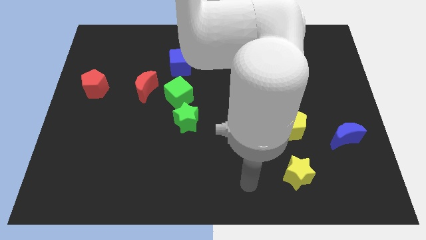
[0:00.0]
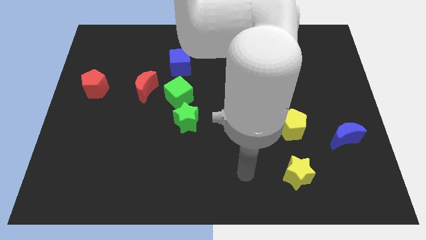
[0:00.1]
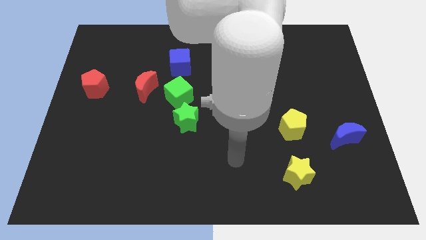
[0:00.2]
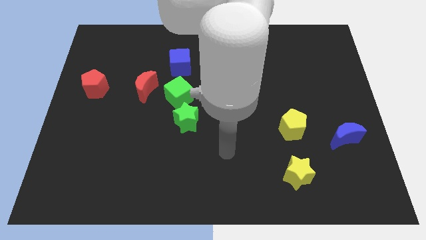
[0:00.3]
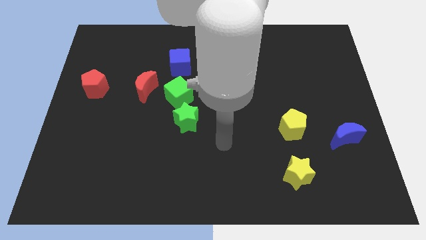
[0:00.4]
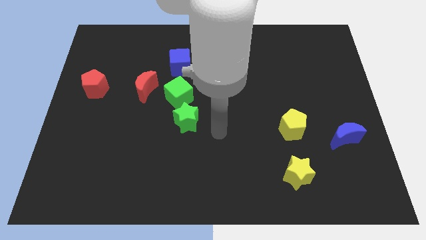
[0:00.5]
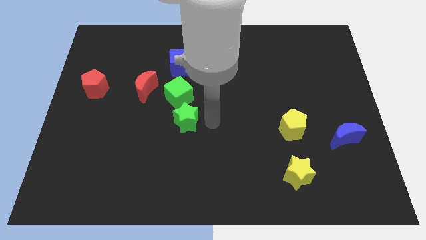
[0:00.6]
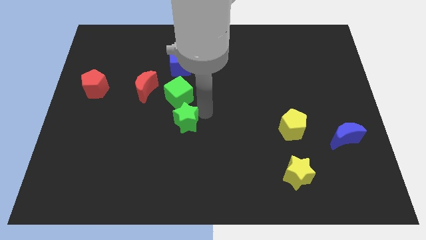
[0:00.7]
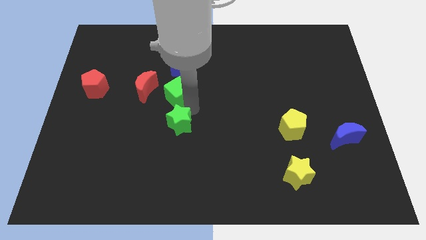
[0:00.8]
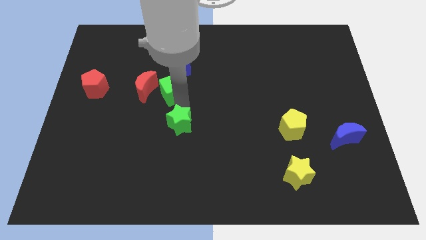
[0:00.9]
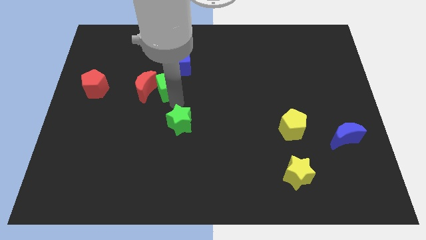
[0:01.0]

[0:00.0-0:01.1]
pull the green star apart from the green cube

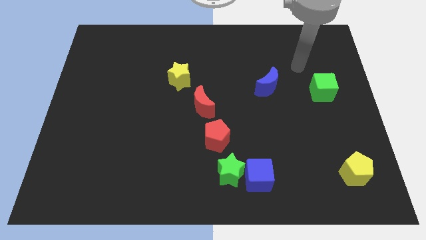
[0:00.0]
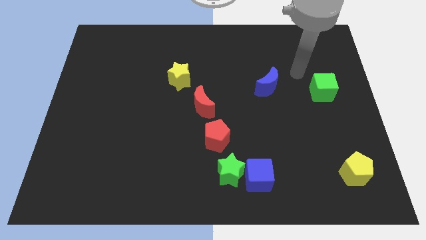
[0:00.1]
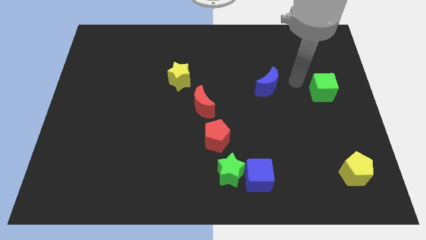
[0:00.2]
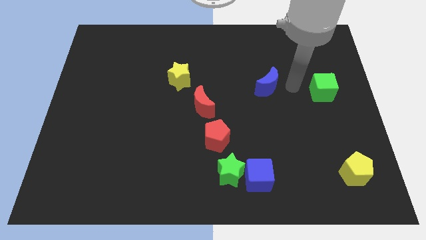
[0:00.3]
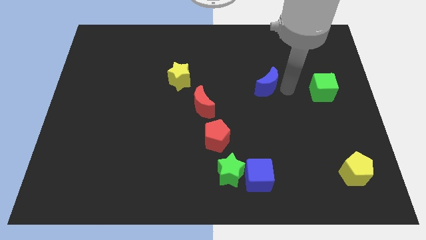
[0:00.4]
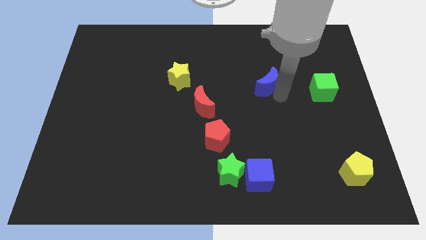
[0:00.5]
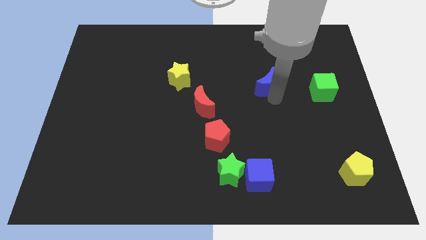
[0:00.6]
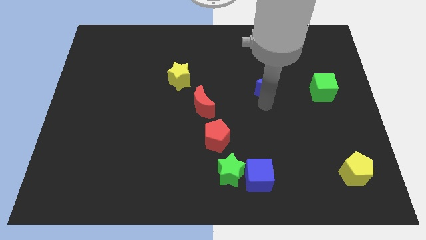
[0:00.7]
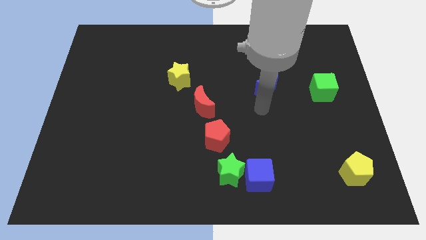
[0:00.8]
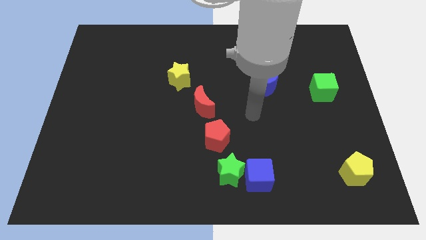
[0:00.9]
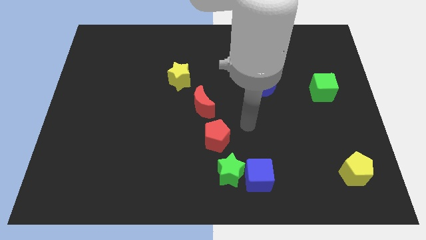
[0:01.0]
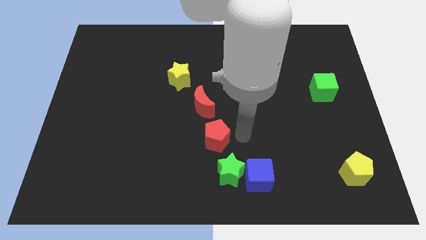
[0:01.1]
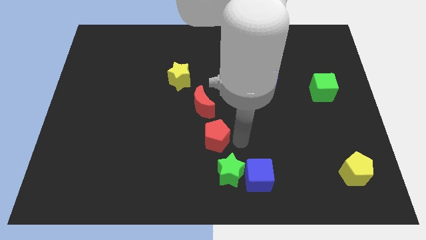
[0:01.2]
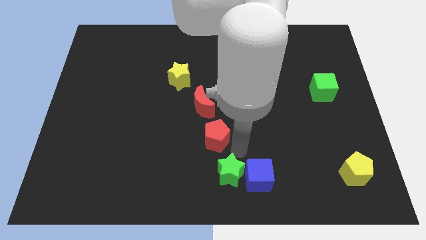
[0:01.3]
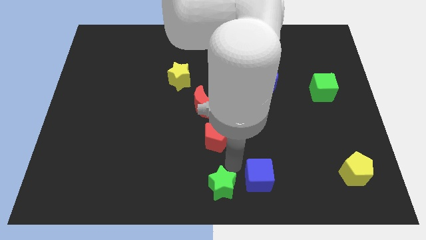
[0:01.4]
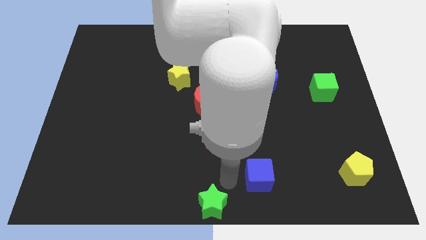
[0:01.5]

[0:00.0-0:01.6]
separate the blue cube from the green star

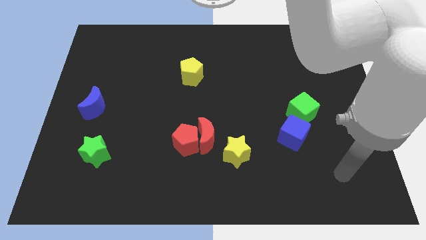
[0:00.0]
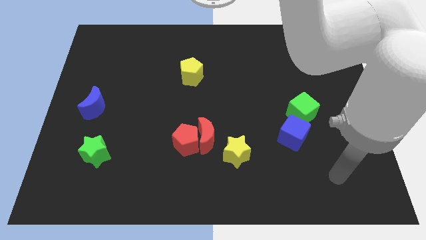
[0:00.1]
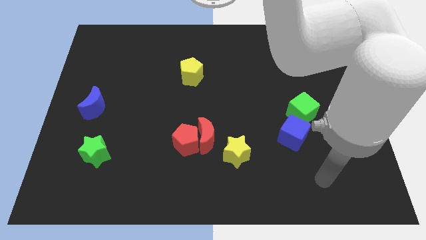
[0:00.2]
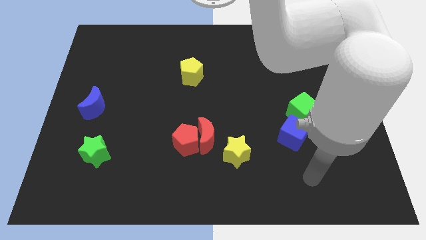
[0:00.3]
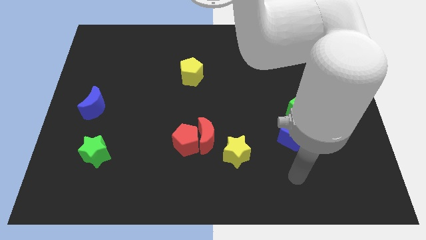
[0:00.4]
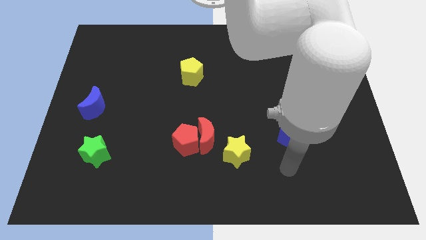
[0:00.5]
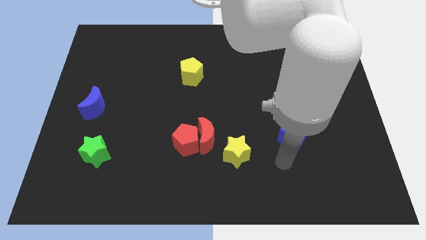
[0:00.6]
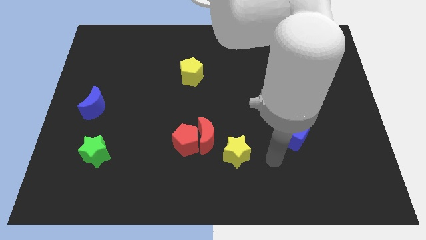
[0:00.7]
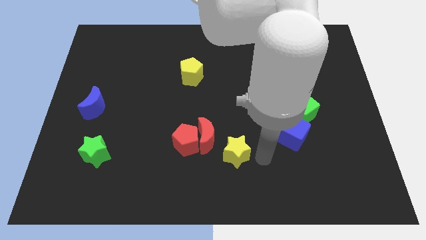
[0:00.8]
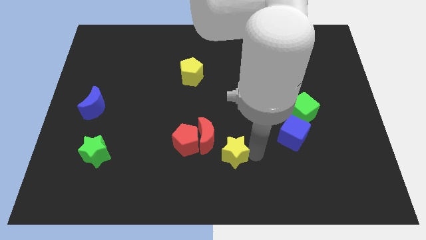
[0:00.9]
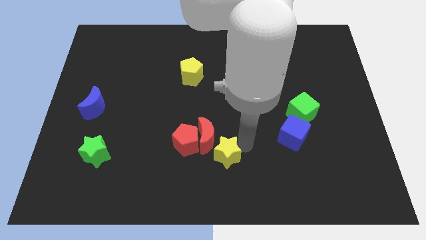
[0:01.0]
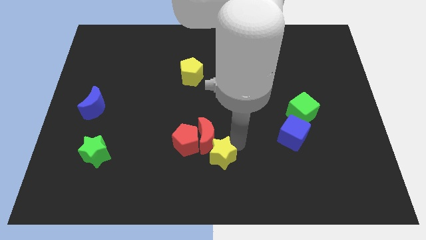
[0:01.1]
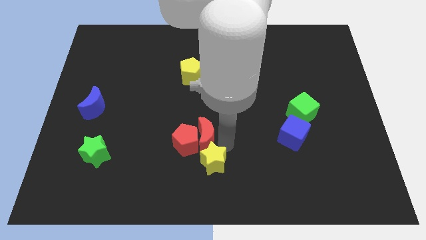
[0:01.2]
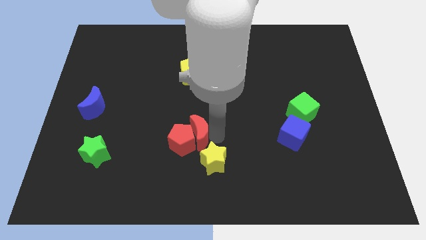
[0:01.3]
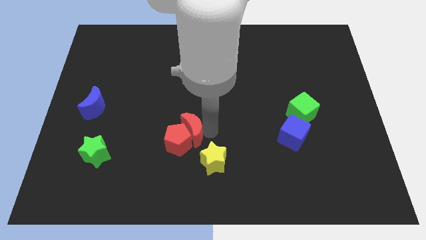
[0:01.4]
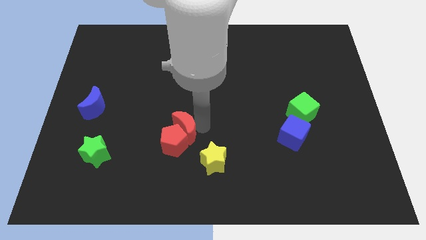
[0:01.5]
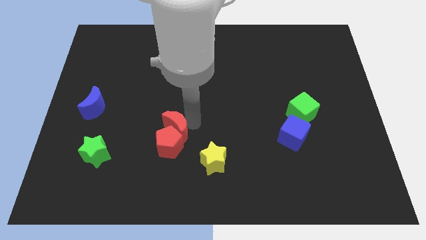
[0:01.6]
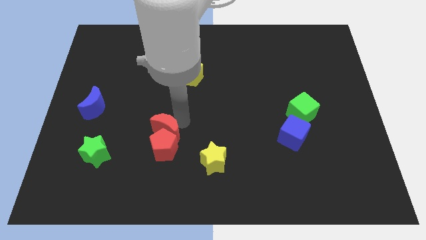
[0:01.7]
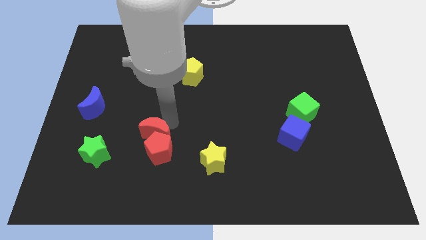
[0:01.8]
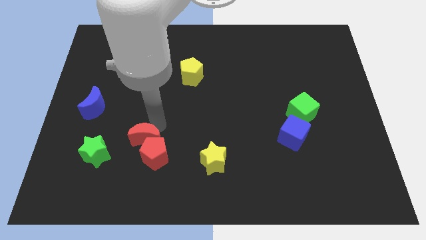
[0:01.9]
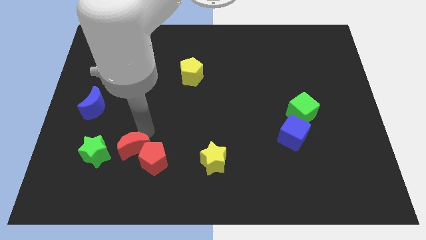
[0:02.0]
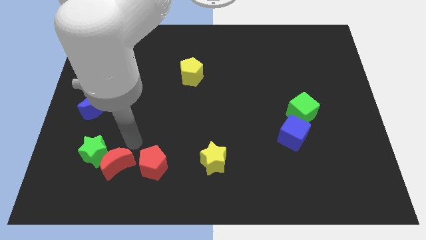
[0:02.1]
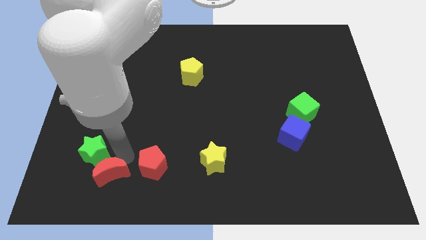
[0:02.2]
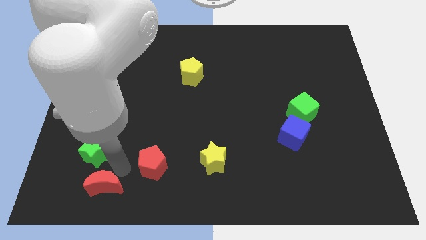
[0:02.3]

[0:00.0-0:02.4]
pull the red pentagon apart from the red moon

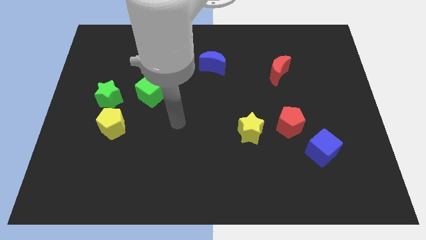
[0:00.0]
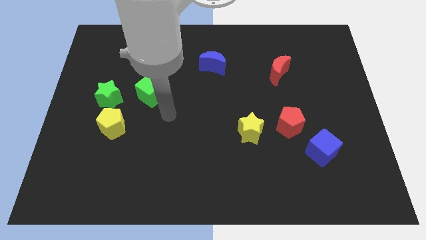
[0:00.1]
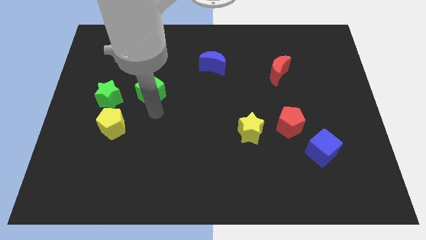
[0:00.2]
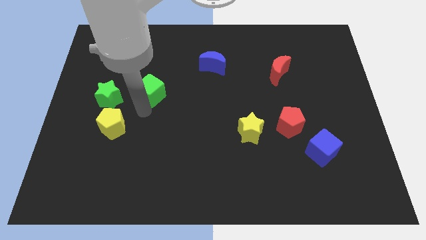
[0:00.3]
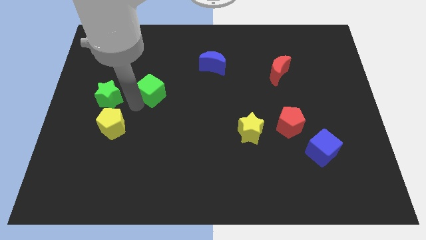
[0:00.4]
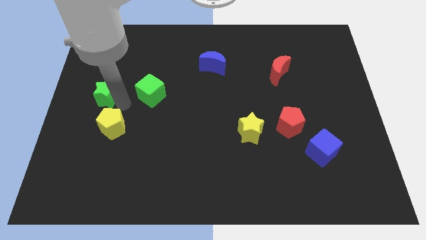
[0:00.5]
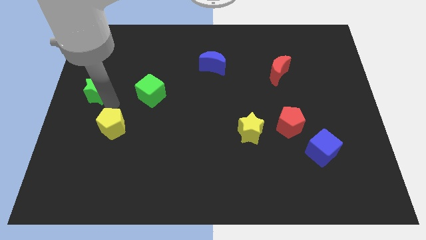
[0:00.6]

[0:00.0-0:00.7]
move the yellow pentagon away from the green star

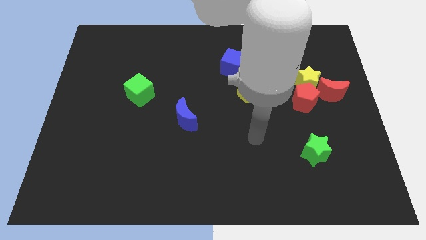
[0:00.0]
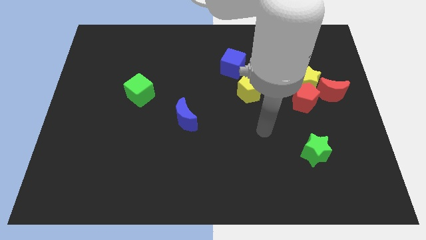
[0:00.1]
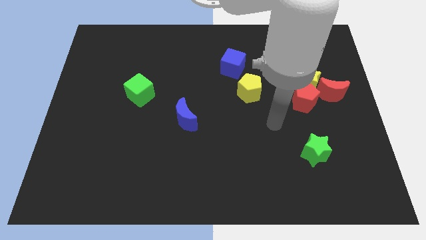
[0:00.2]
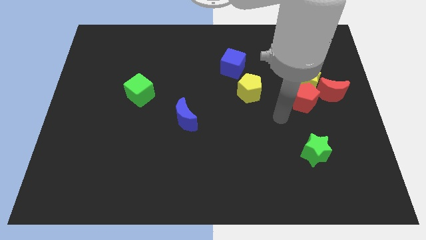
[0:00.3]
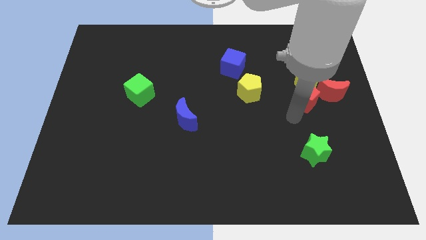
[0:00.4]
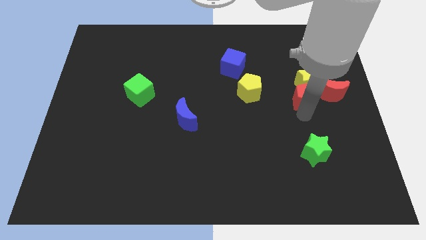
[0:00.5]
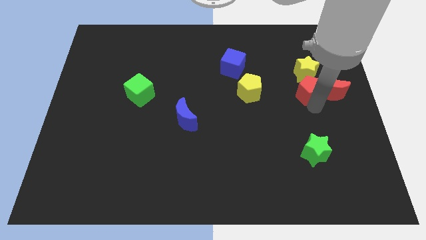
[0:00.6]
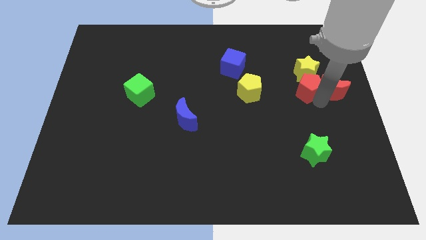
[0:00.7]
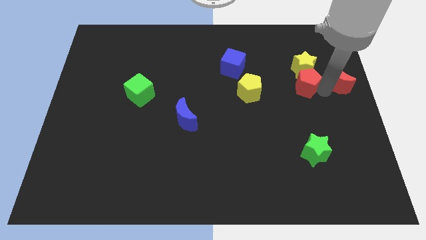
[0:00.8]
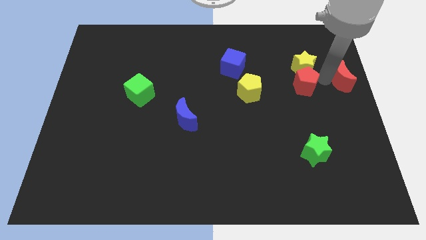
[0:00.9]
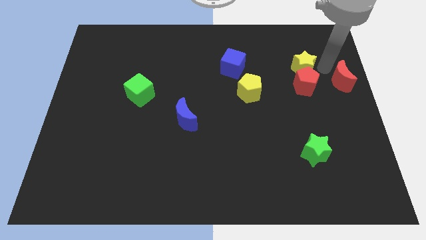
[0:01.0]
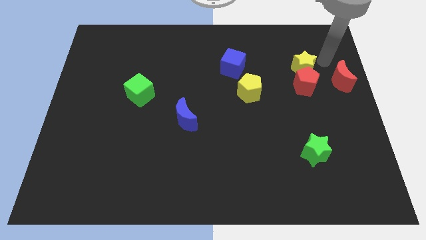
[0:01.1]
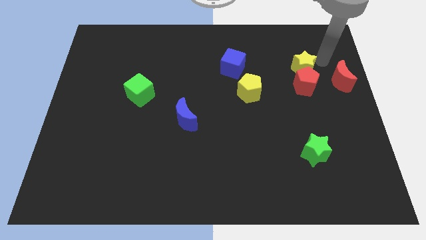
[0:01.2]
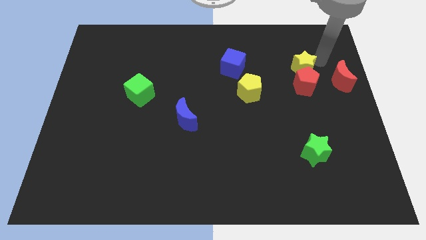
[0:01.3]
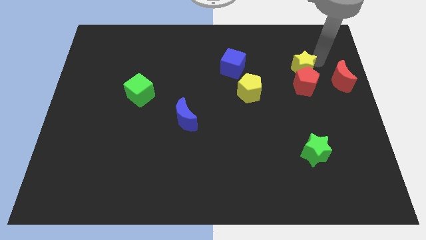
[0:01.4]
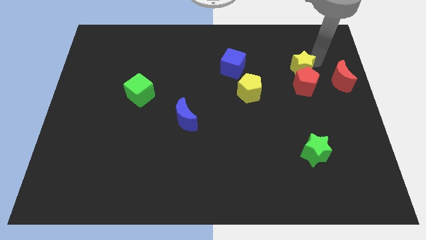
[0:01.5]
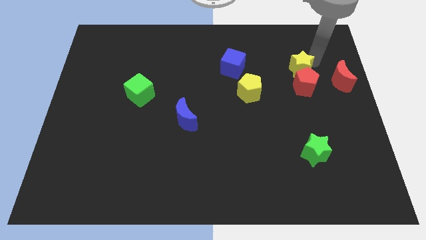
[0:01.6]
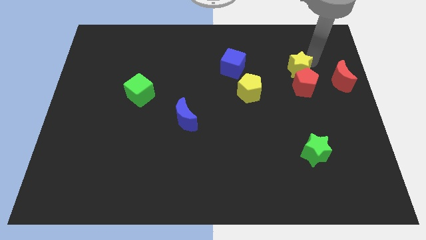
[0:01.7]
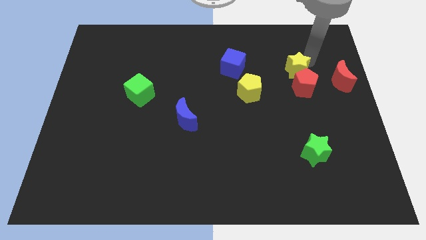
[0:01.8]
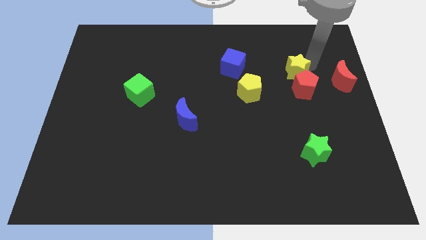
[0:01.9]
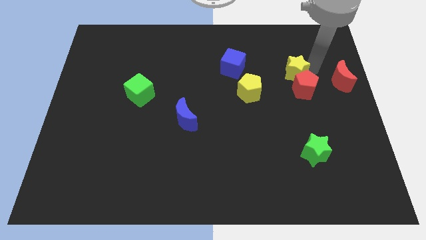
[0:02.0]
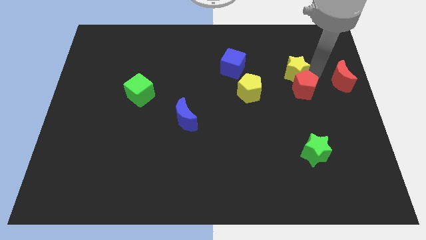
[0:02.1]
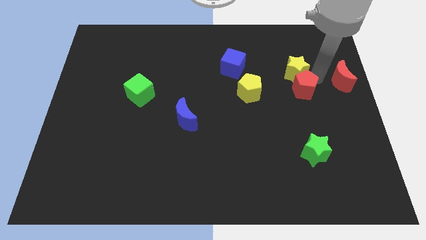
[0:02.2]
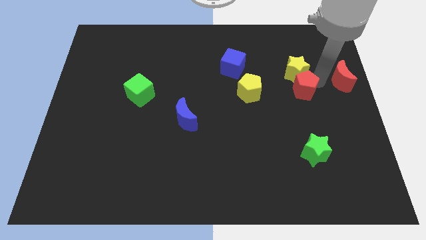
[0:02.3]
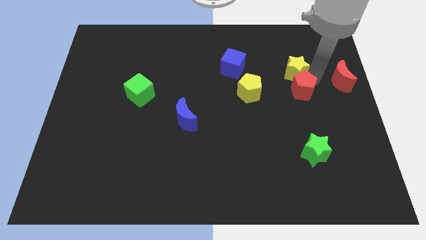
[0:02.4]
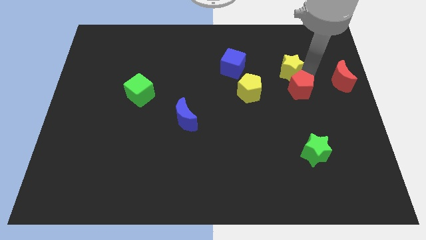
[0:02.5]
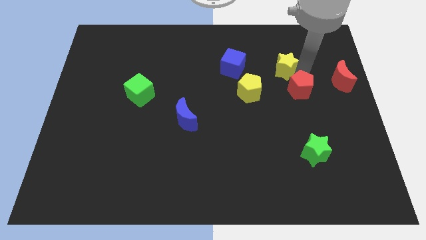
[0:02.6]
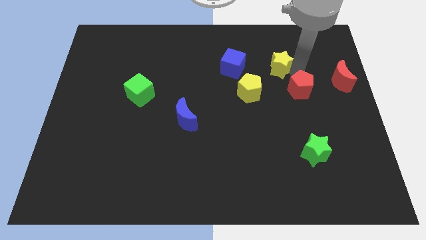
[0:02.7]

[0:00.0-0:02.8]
move the yellow star away from the red pentagon and red moon

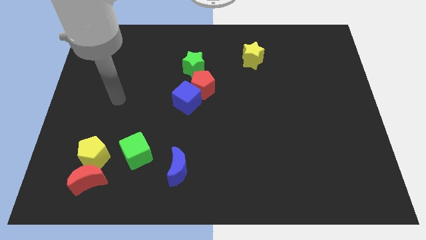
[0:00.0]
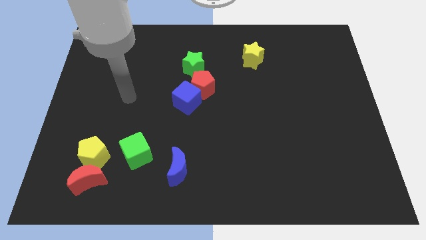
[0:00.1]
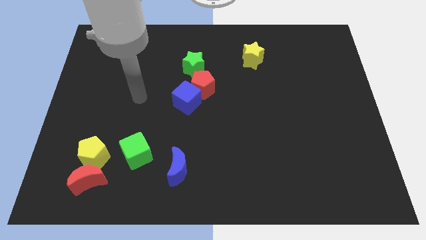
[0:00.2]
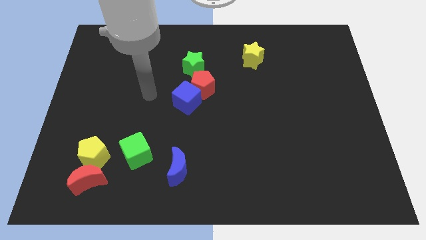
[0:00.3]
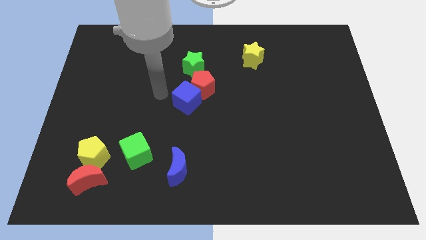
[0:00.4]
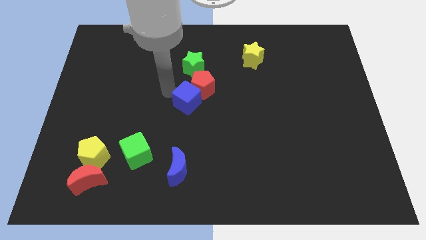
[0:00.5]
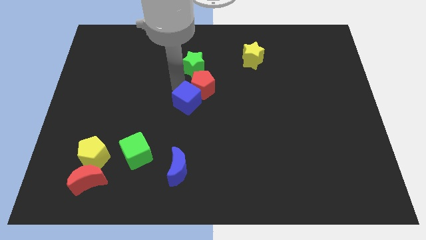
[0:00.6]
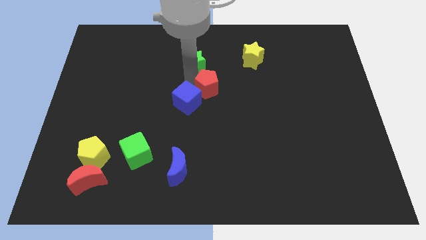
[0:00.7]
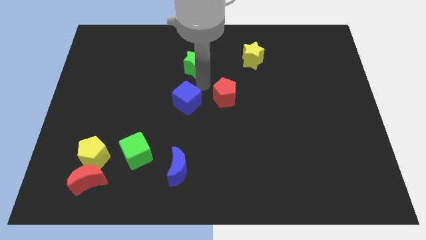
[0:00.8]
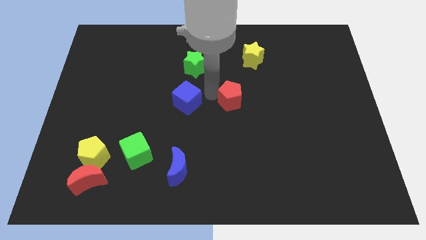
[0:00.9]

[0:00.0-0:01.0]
separate the blue cube from the red pentagon
